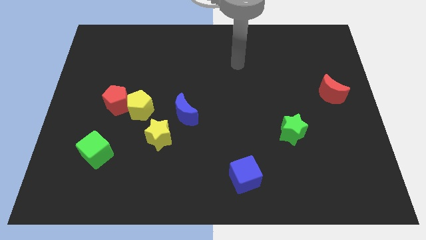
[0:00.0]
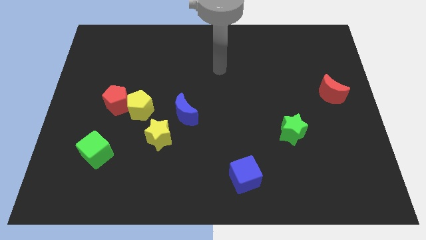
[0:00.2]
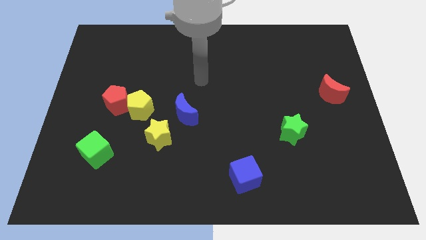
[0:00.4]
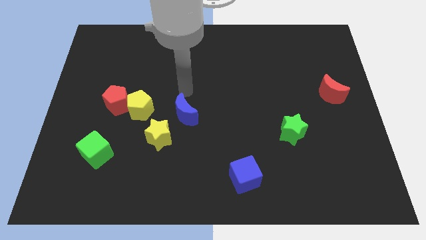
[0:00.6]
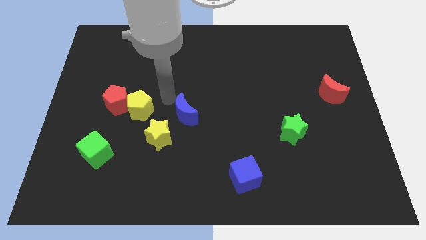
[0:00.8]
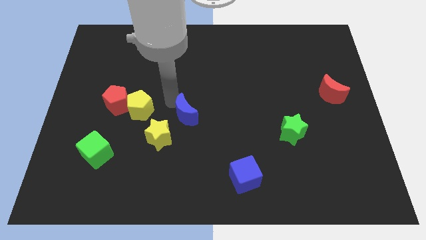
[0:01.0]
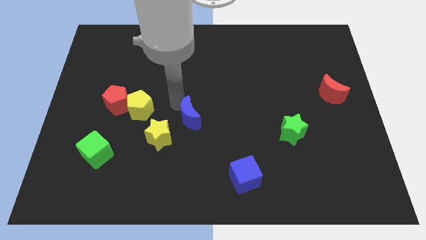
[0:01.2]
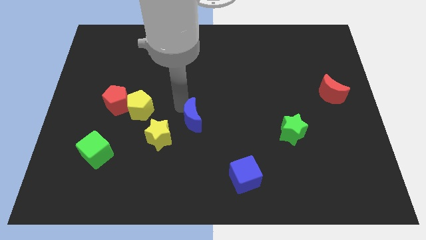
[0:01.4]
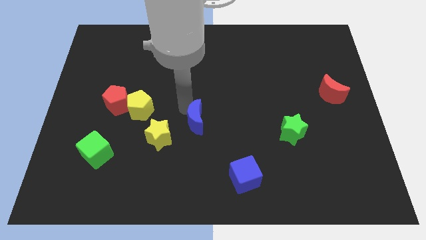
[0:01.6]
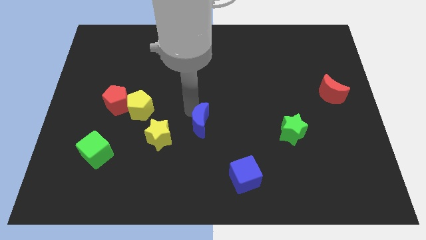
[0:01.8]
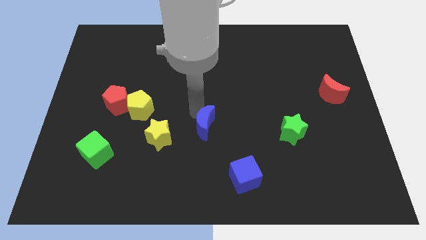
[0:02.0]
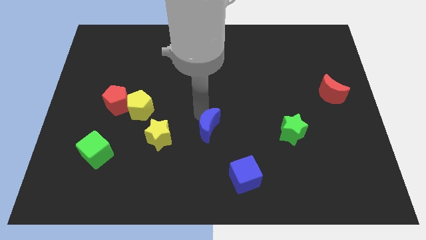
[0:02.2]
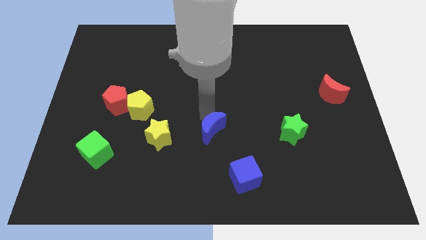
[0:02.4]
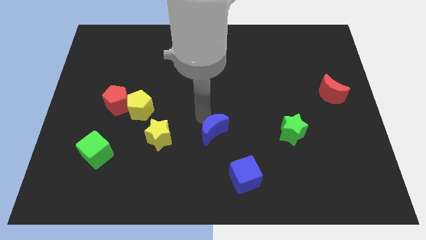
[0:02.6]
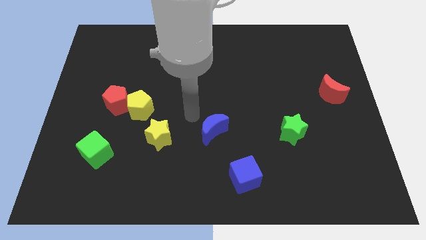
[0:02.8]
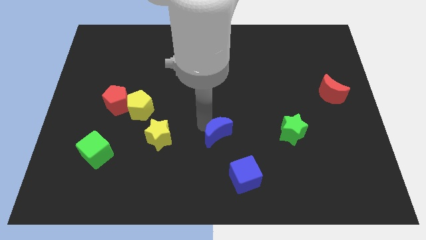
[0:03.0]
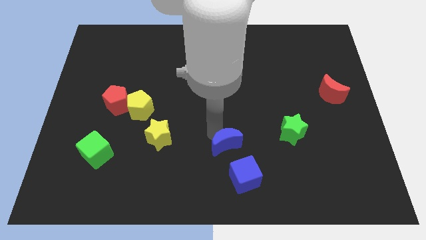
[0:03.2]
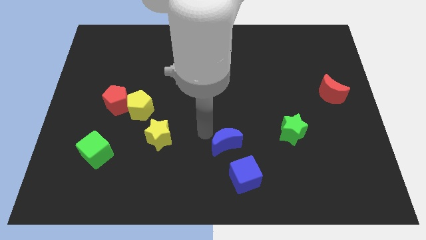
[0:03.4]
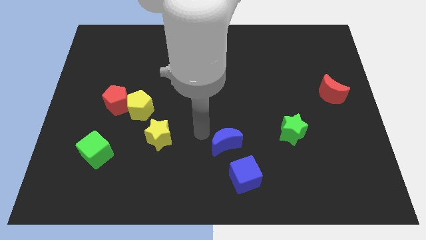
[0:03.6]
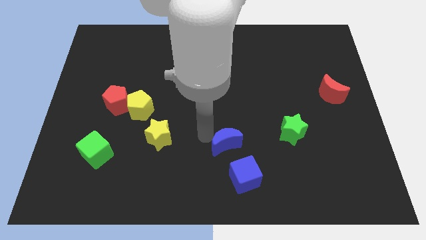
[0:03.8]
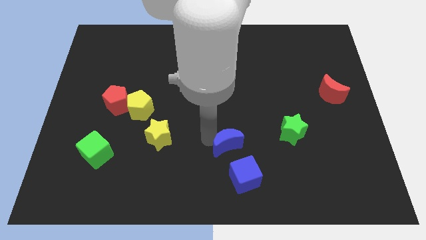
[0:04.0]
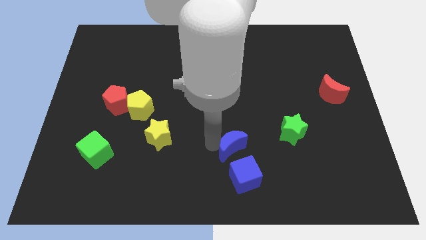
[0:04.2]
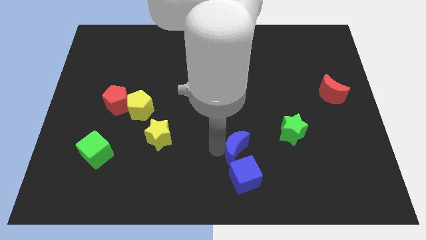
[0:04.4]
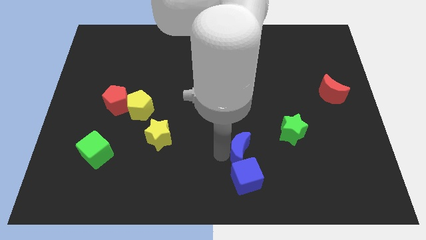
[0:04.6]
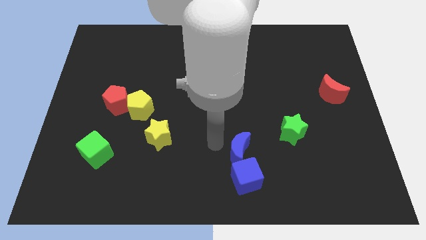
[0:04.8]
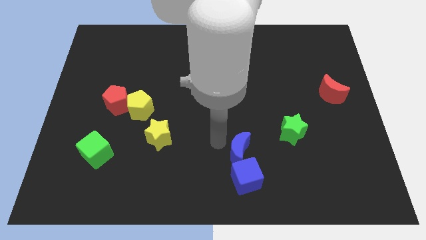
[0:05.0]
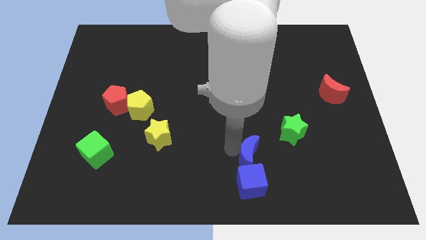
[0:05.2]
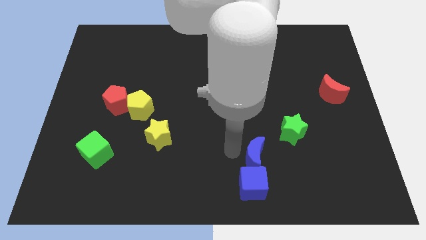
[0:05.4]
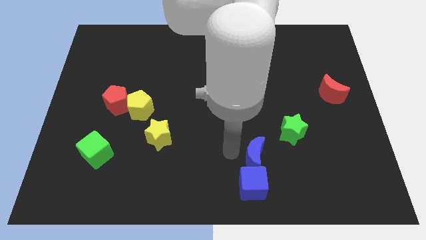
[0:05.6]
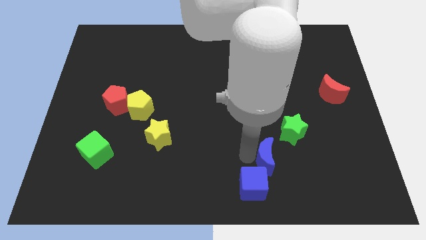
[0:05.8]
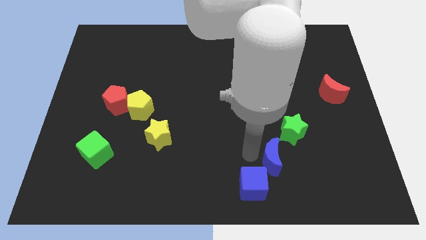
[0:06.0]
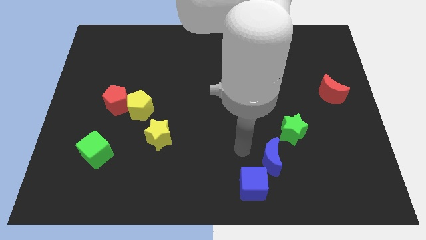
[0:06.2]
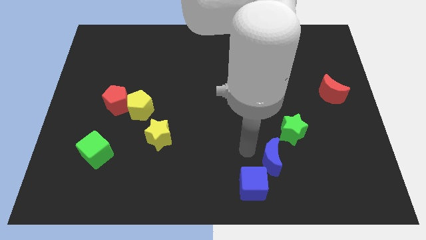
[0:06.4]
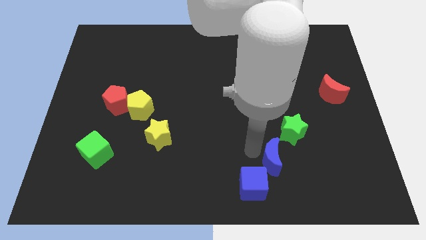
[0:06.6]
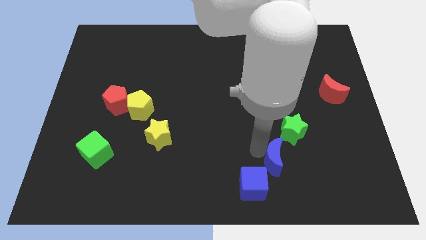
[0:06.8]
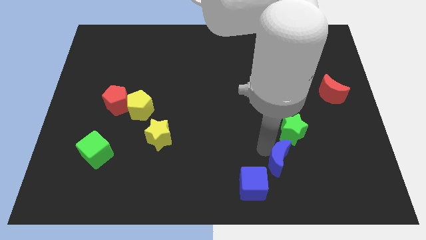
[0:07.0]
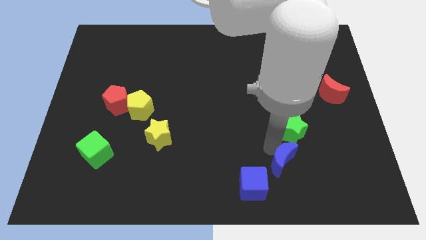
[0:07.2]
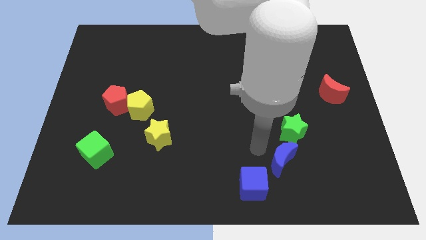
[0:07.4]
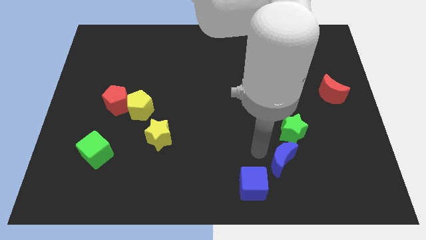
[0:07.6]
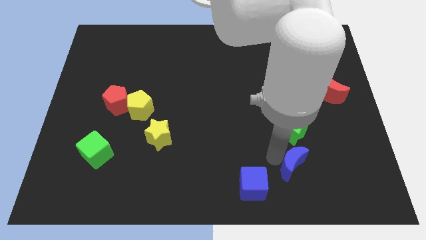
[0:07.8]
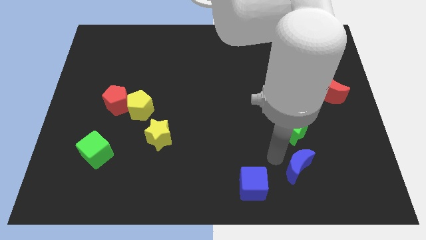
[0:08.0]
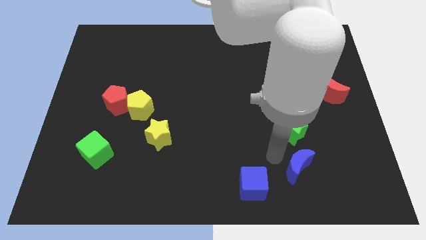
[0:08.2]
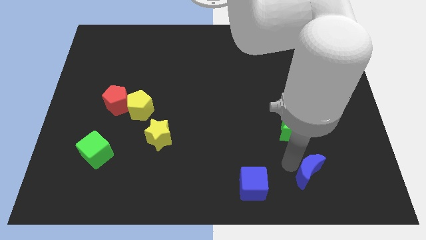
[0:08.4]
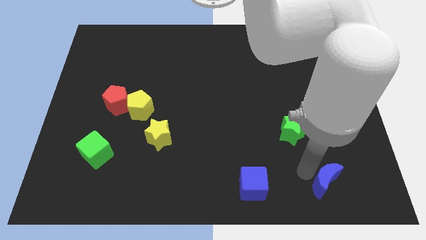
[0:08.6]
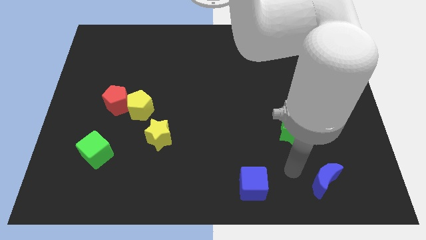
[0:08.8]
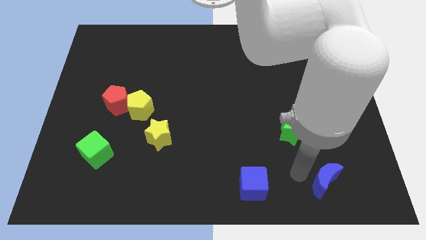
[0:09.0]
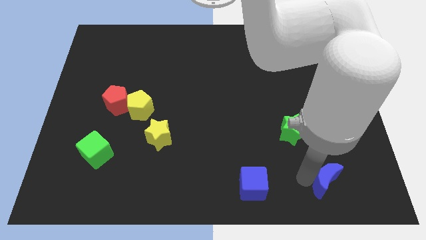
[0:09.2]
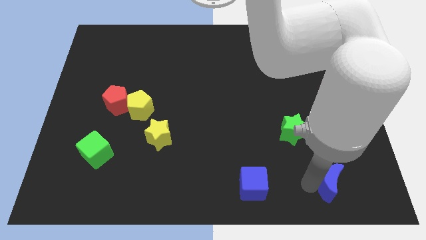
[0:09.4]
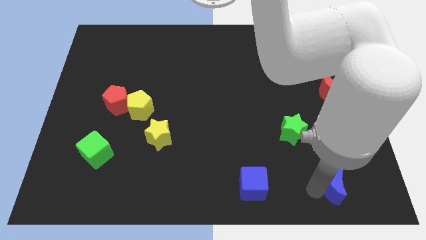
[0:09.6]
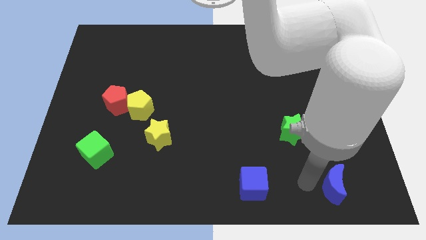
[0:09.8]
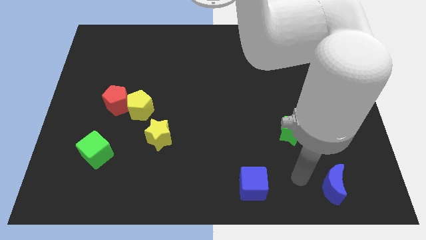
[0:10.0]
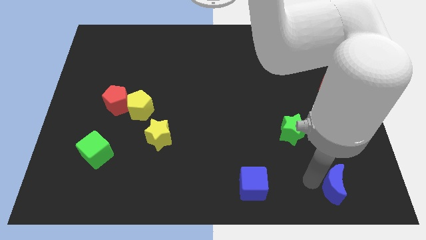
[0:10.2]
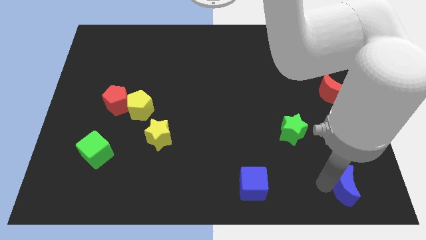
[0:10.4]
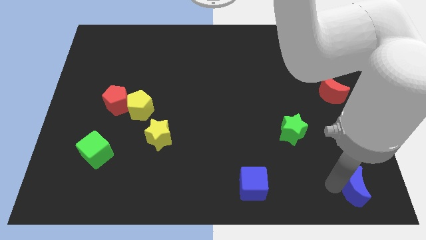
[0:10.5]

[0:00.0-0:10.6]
put the blue moon to the lower right corner

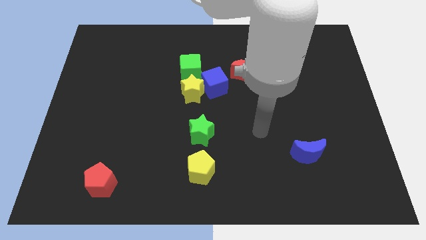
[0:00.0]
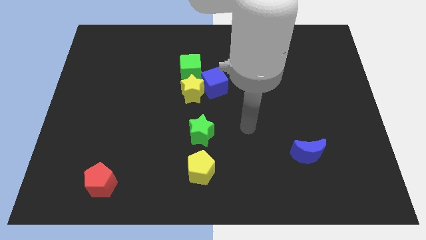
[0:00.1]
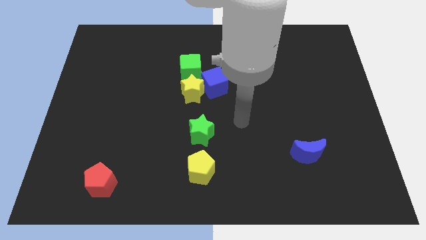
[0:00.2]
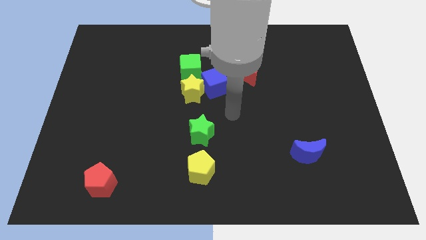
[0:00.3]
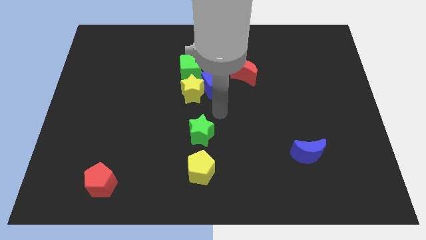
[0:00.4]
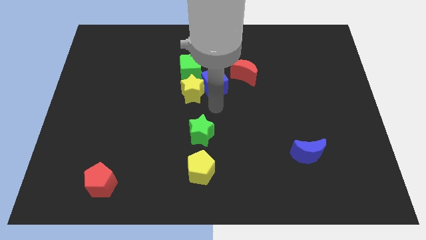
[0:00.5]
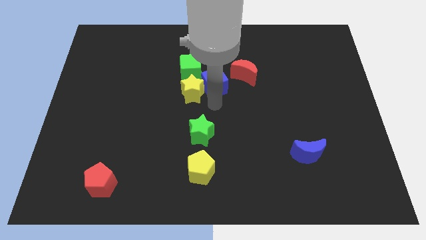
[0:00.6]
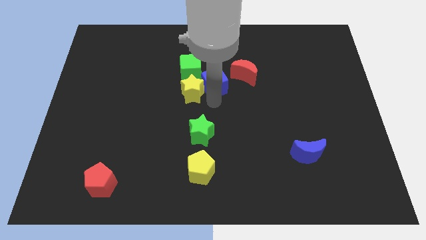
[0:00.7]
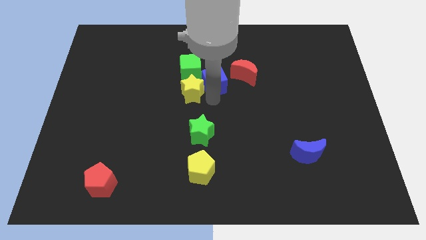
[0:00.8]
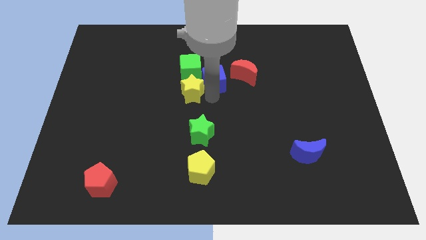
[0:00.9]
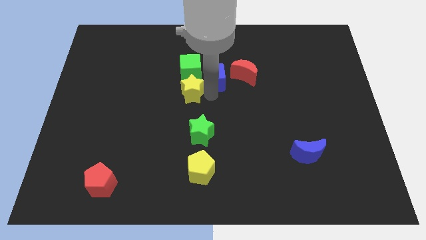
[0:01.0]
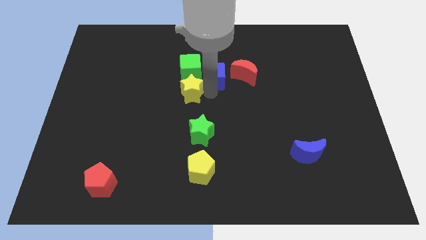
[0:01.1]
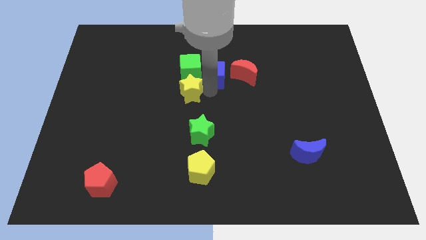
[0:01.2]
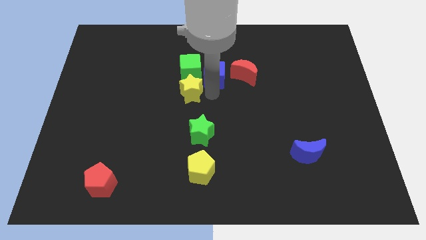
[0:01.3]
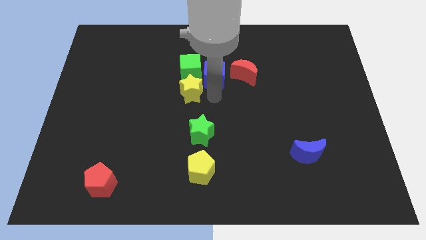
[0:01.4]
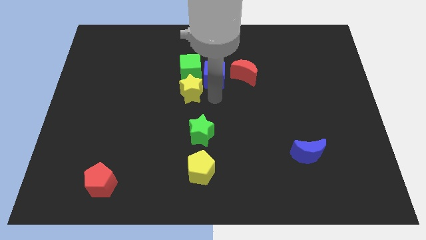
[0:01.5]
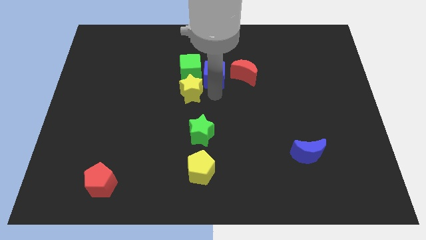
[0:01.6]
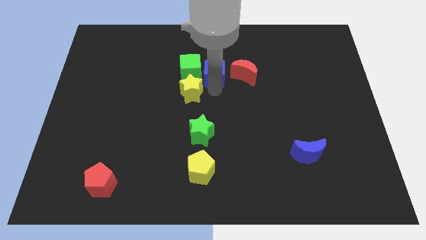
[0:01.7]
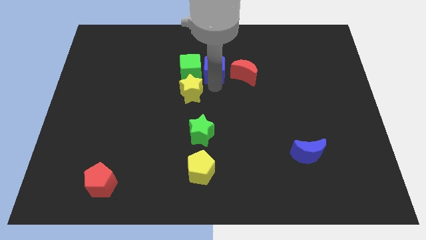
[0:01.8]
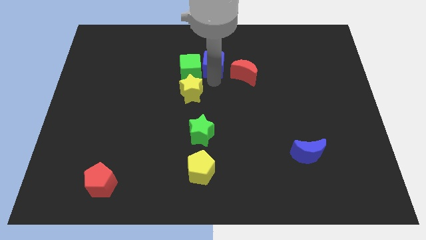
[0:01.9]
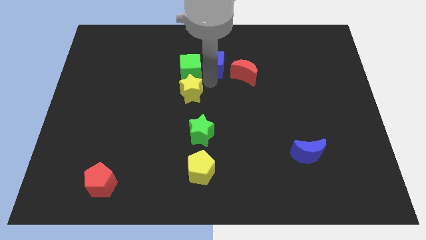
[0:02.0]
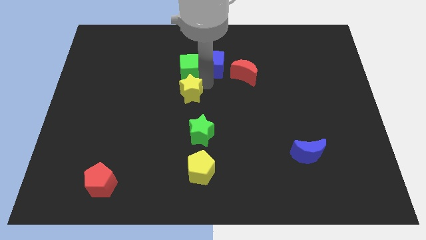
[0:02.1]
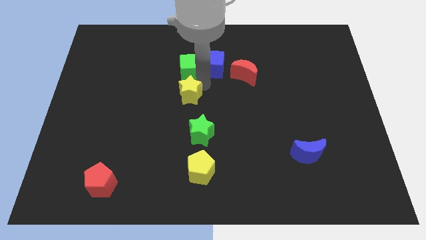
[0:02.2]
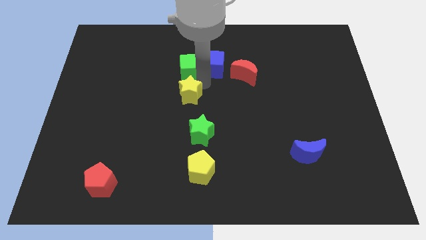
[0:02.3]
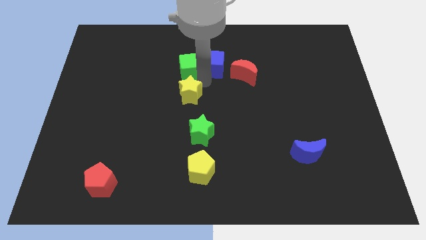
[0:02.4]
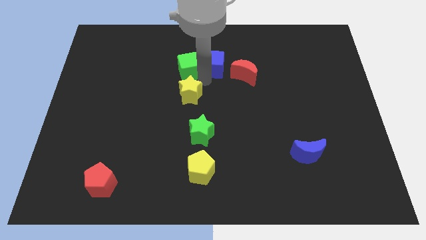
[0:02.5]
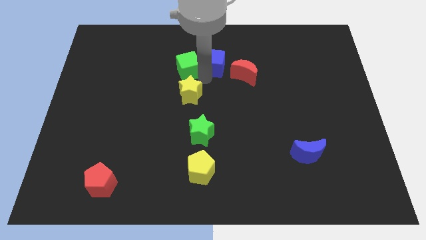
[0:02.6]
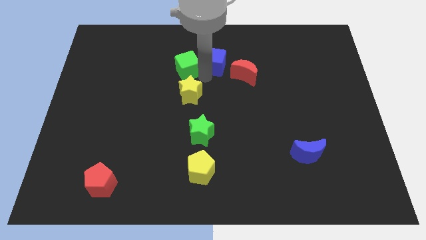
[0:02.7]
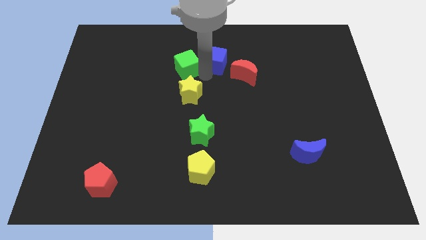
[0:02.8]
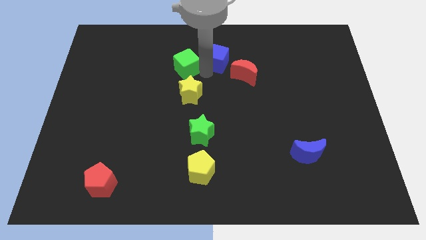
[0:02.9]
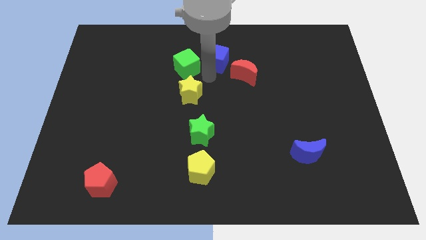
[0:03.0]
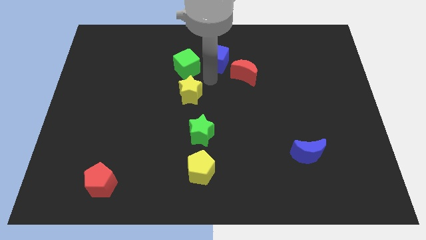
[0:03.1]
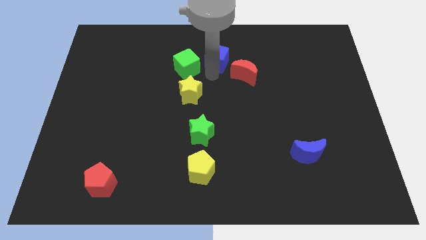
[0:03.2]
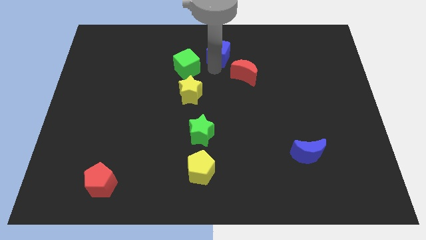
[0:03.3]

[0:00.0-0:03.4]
put the blue cube to the top side
